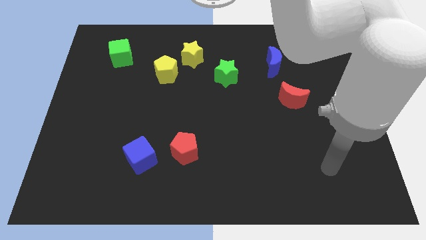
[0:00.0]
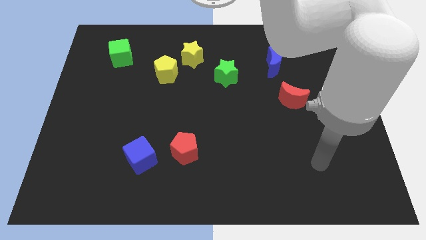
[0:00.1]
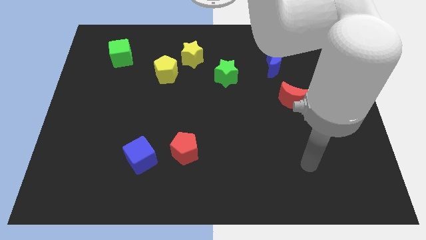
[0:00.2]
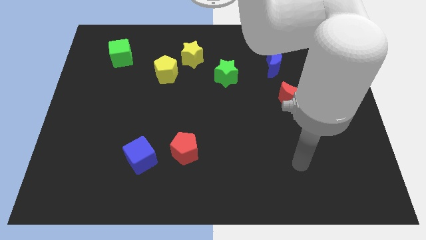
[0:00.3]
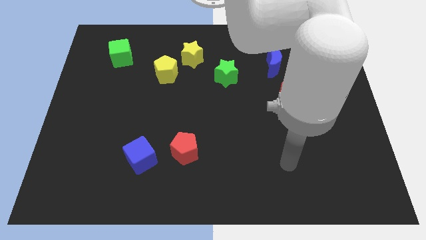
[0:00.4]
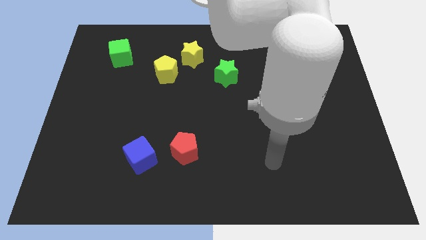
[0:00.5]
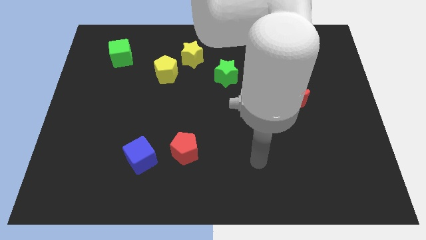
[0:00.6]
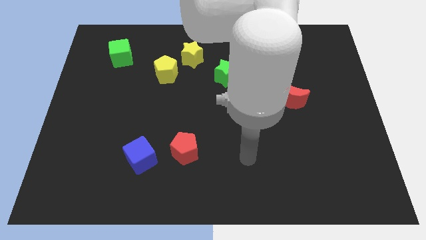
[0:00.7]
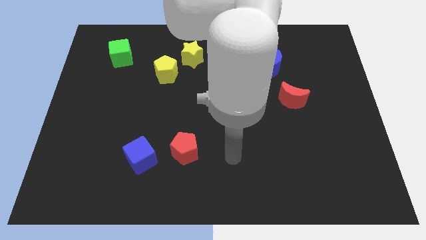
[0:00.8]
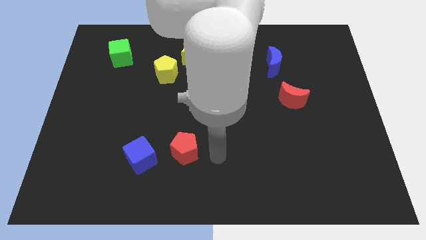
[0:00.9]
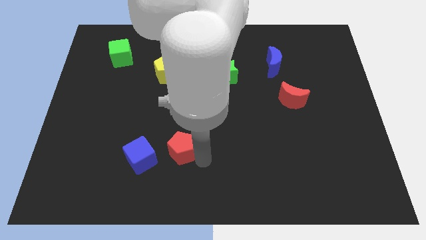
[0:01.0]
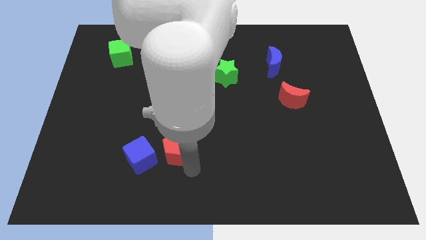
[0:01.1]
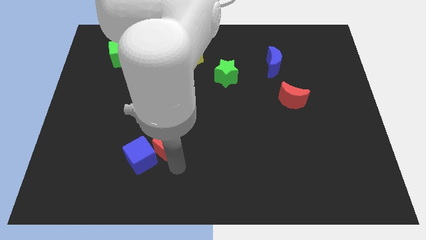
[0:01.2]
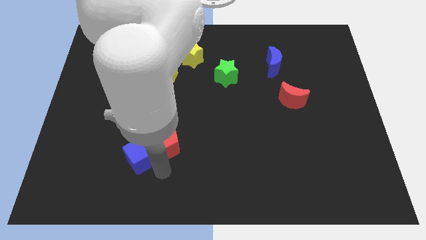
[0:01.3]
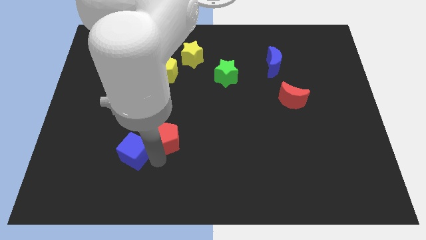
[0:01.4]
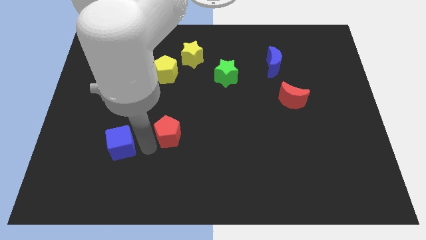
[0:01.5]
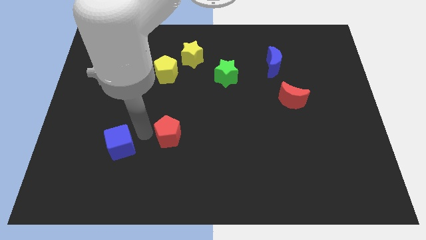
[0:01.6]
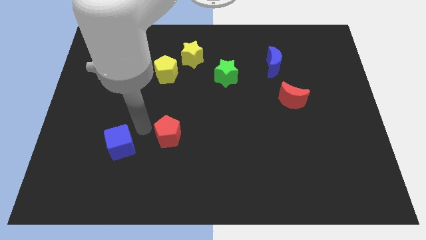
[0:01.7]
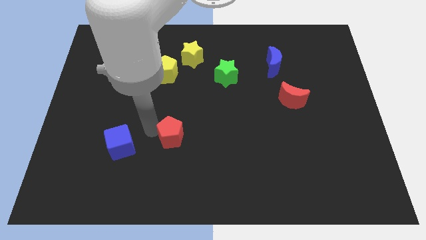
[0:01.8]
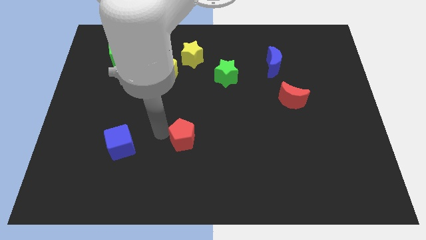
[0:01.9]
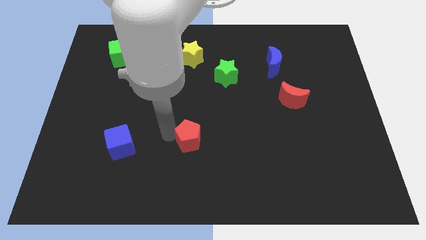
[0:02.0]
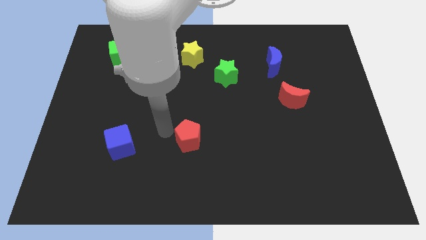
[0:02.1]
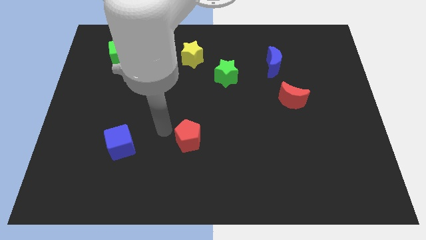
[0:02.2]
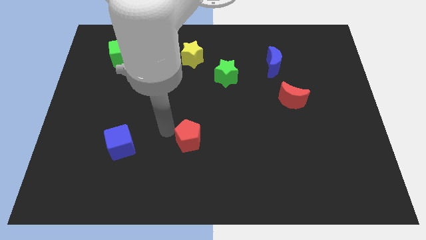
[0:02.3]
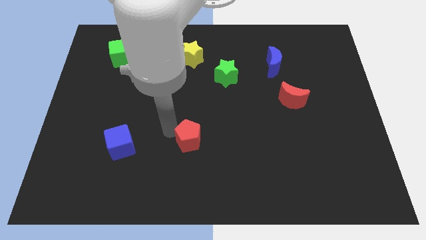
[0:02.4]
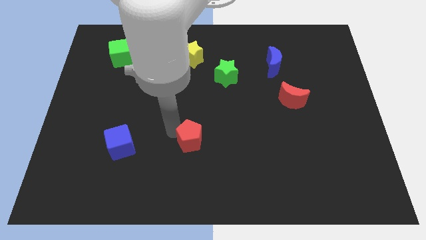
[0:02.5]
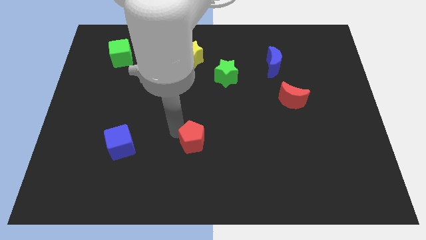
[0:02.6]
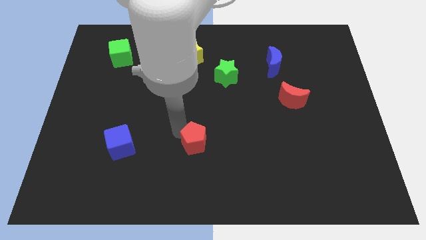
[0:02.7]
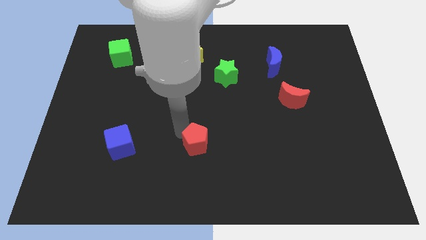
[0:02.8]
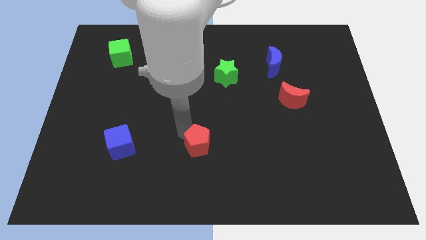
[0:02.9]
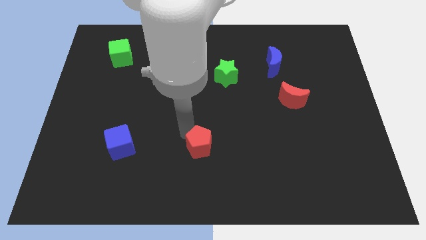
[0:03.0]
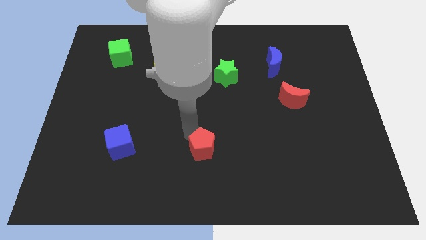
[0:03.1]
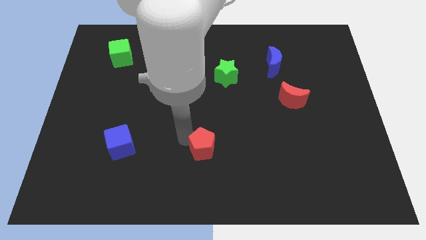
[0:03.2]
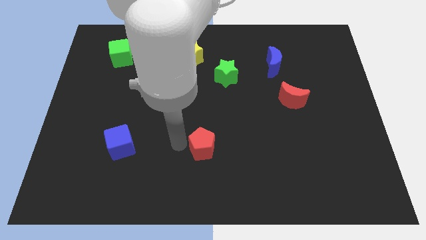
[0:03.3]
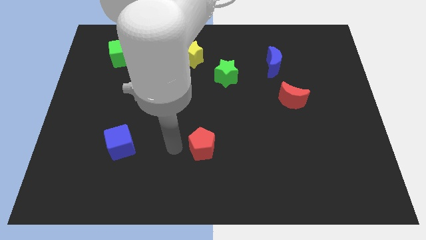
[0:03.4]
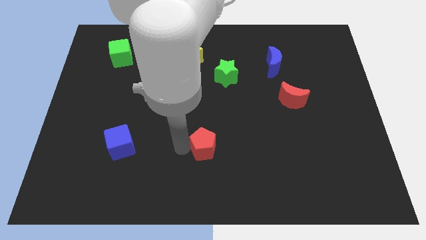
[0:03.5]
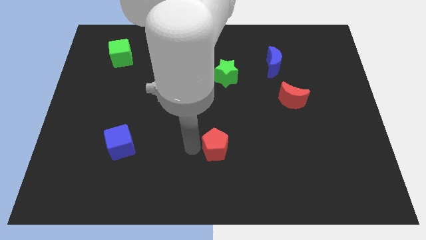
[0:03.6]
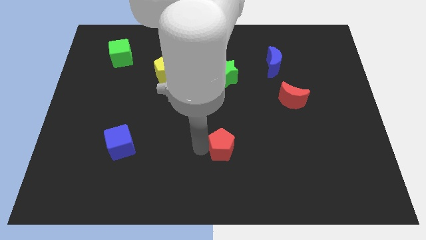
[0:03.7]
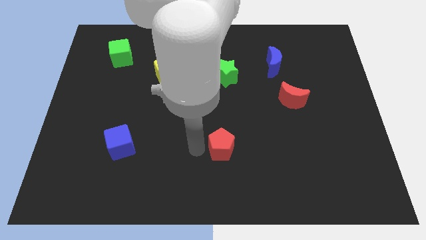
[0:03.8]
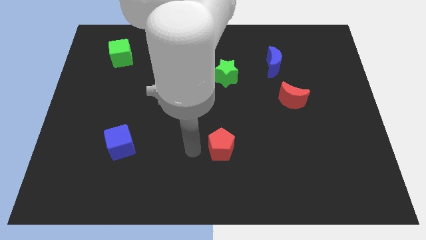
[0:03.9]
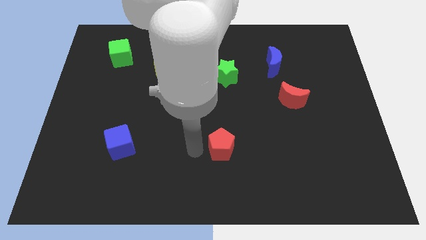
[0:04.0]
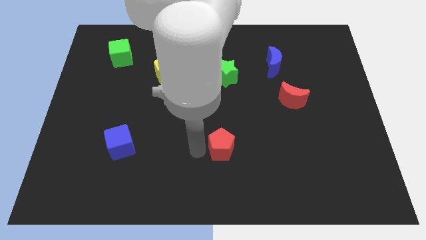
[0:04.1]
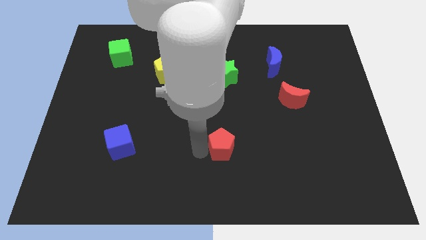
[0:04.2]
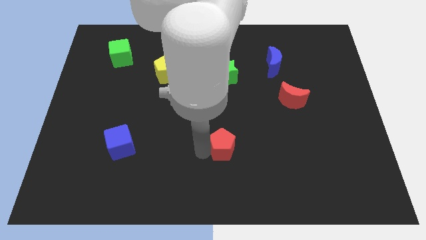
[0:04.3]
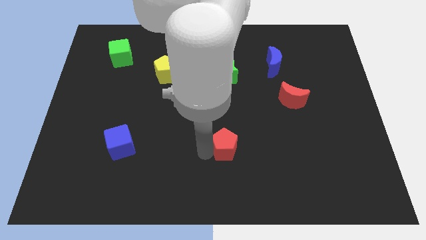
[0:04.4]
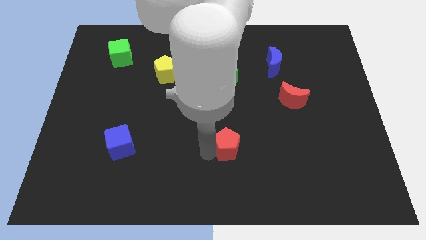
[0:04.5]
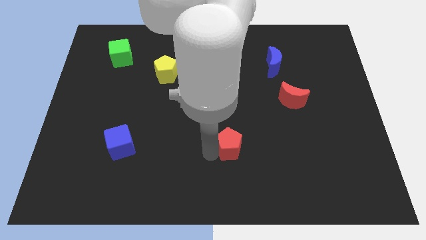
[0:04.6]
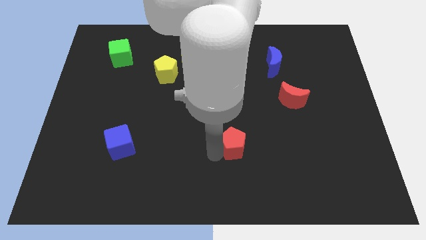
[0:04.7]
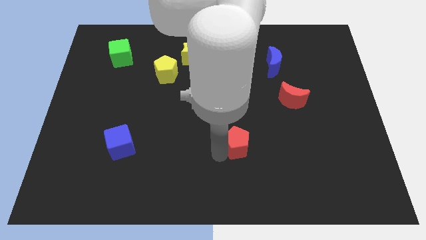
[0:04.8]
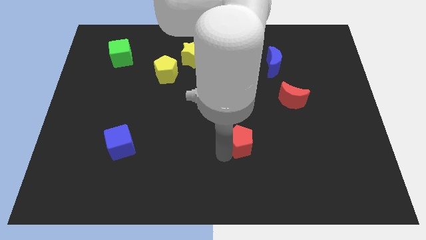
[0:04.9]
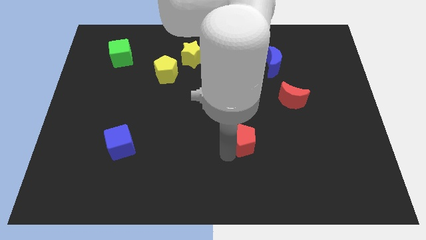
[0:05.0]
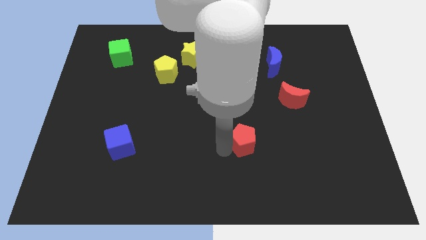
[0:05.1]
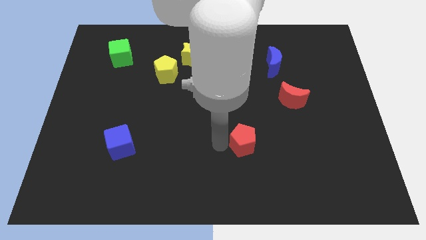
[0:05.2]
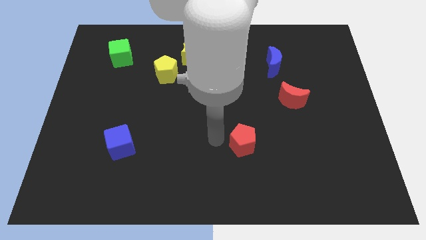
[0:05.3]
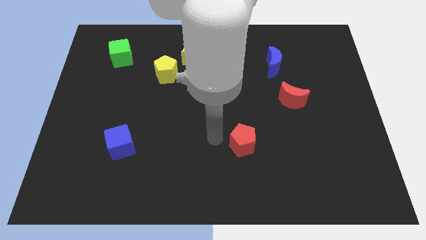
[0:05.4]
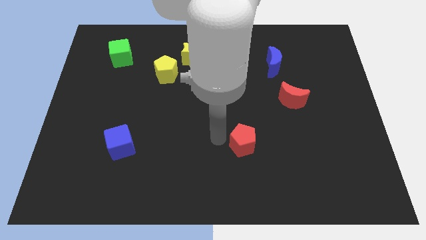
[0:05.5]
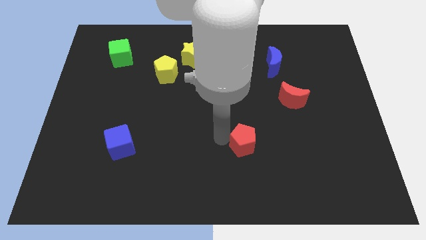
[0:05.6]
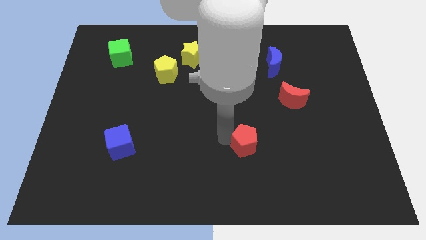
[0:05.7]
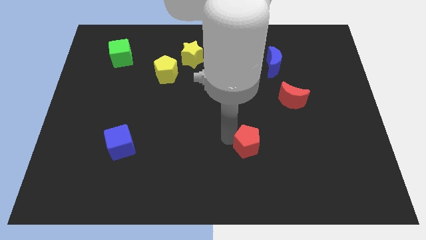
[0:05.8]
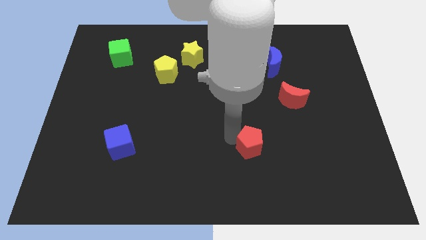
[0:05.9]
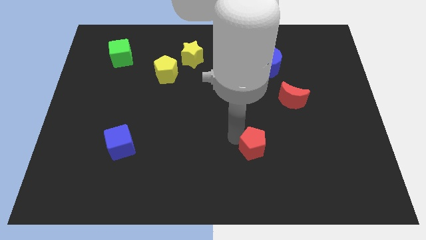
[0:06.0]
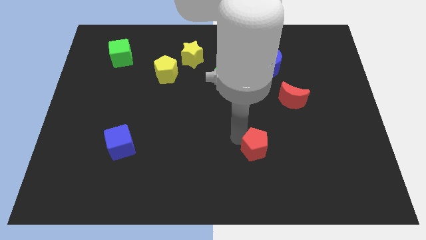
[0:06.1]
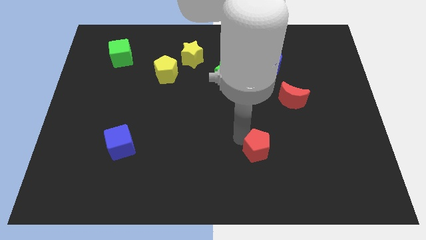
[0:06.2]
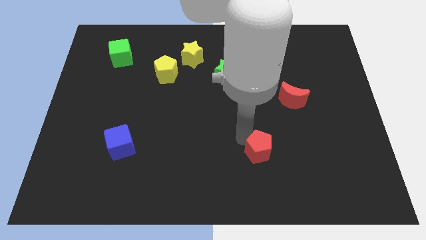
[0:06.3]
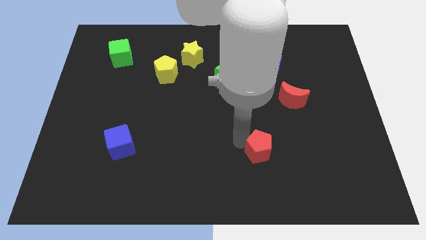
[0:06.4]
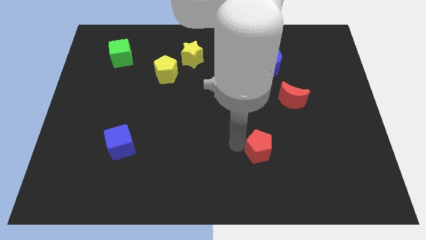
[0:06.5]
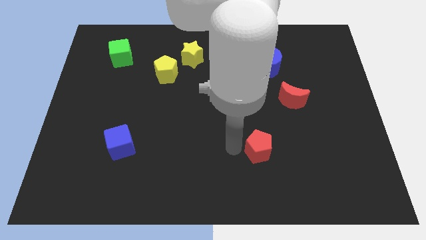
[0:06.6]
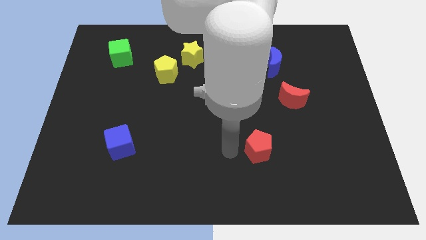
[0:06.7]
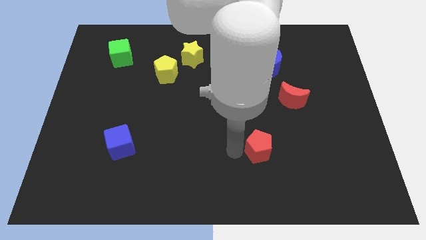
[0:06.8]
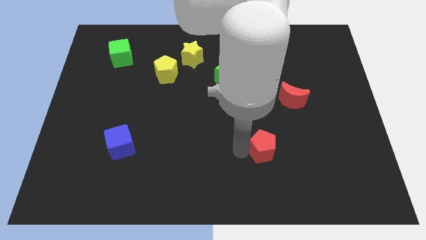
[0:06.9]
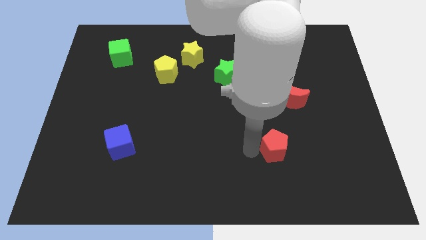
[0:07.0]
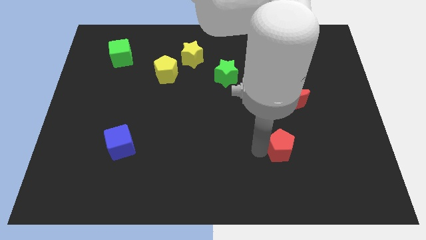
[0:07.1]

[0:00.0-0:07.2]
move the red pentagon to the right

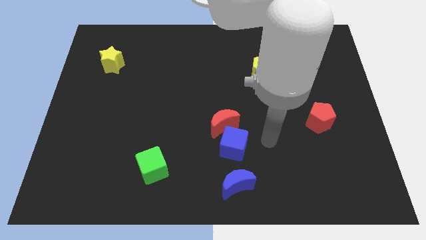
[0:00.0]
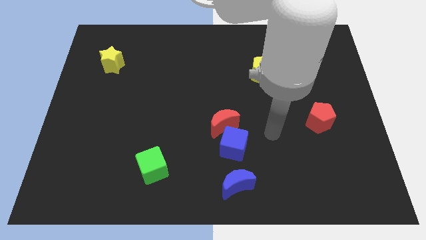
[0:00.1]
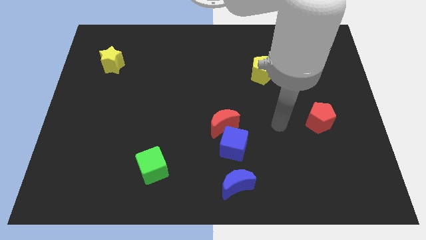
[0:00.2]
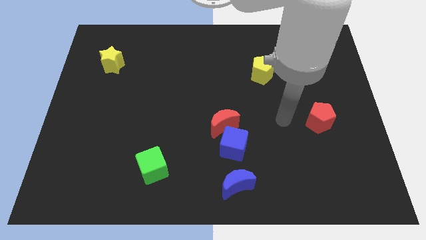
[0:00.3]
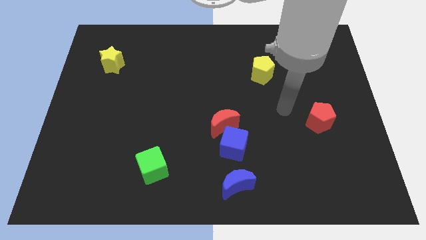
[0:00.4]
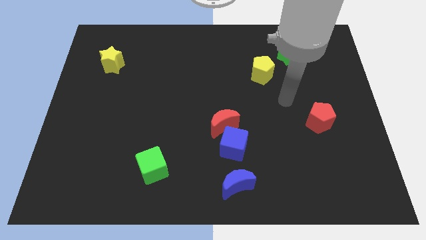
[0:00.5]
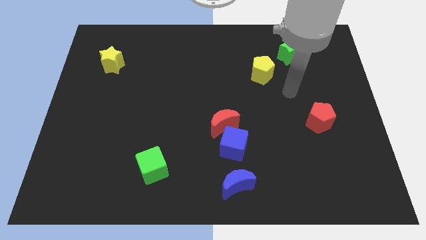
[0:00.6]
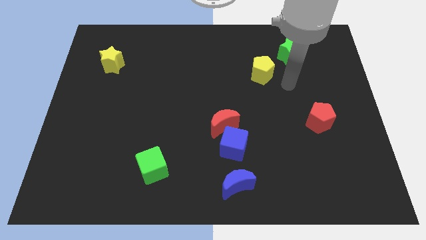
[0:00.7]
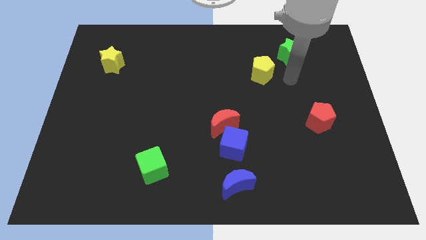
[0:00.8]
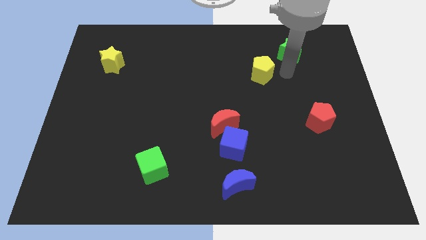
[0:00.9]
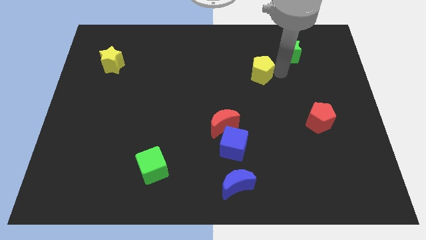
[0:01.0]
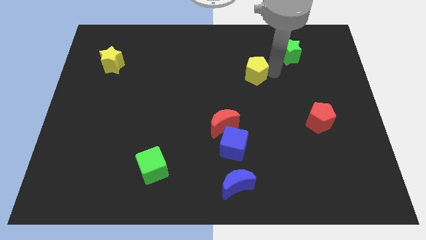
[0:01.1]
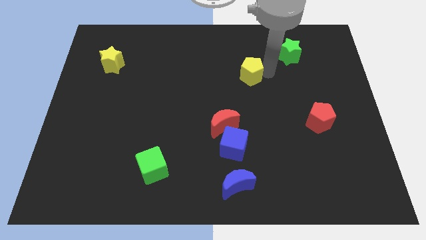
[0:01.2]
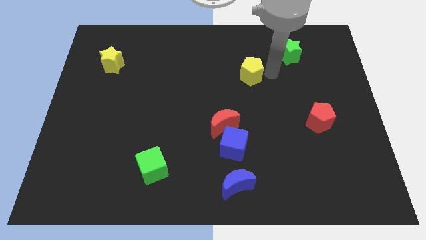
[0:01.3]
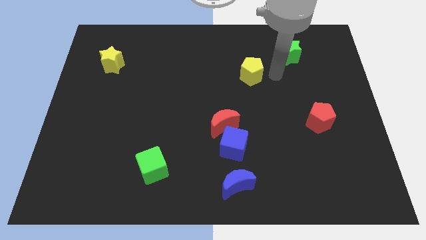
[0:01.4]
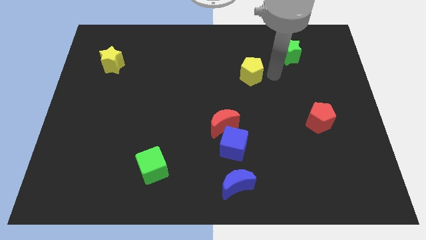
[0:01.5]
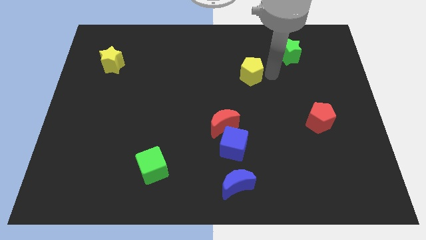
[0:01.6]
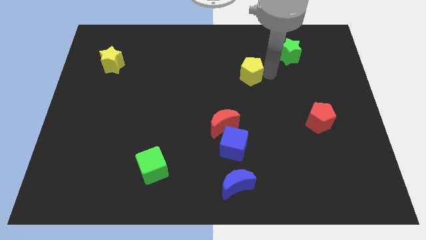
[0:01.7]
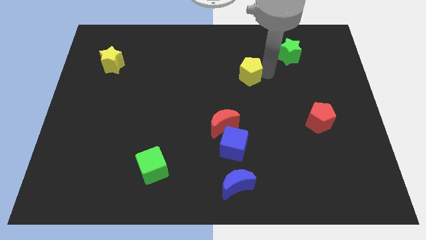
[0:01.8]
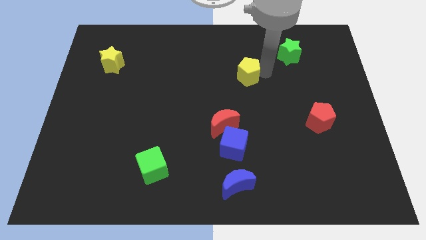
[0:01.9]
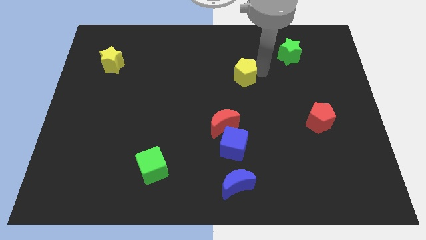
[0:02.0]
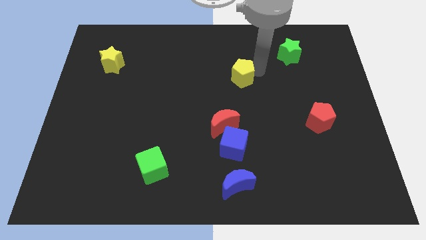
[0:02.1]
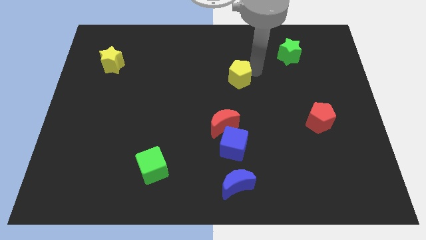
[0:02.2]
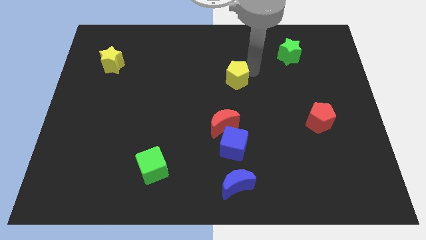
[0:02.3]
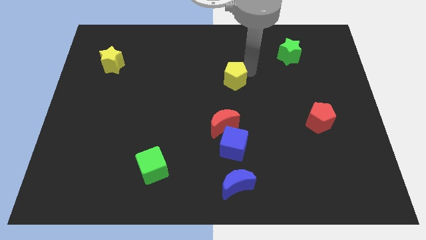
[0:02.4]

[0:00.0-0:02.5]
move the yellow pentagon a little left
